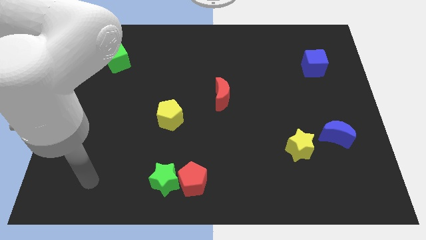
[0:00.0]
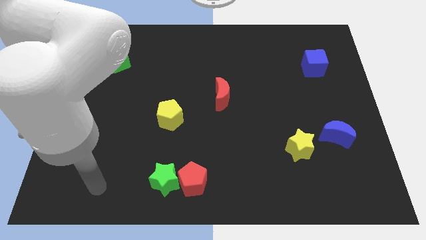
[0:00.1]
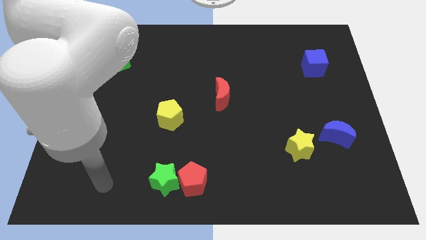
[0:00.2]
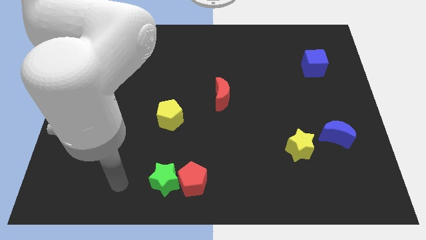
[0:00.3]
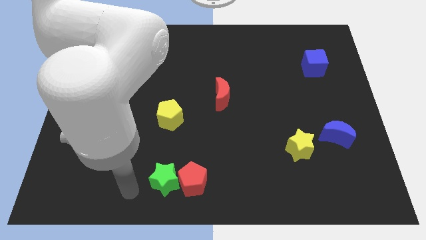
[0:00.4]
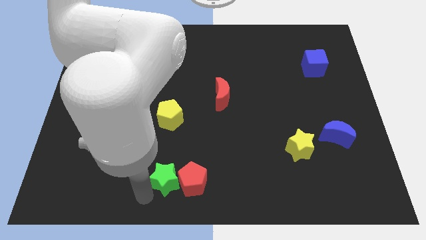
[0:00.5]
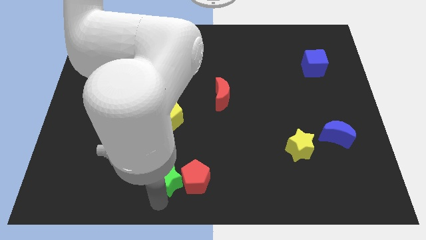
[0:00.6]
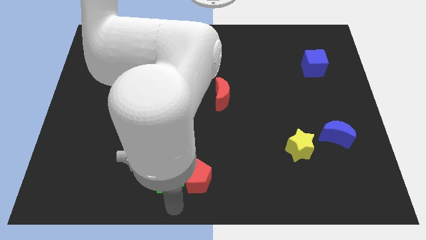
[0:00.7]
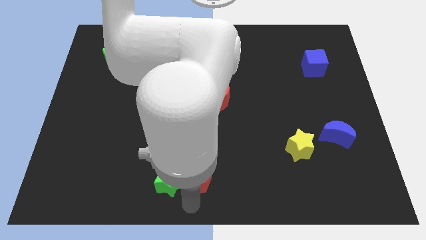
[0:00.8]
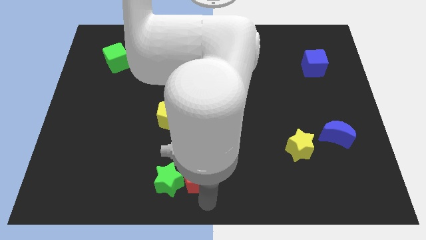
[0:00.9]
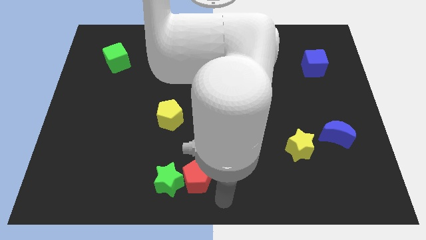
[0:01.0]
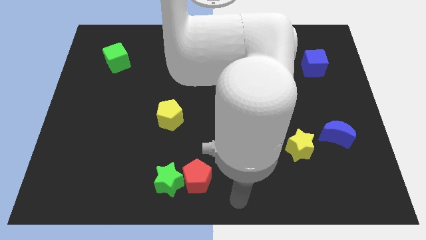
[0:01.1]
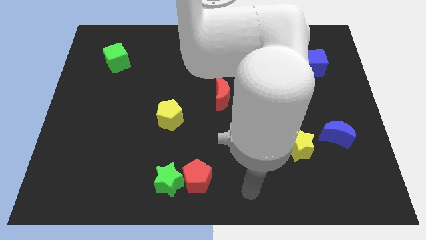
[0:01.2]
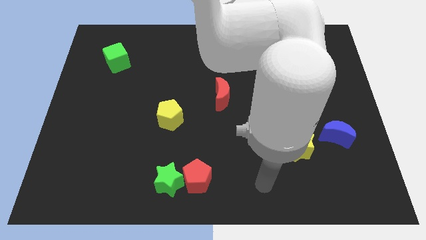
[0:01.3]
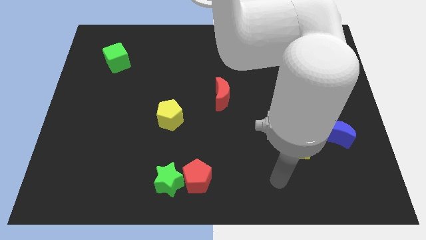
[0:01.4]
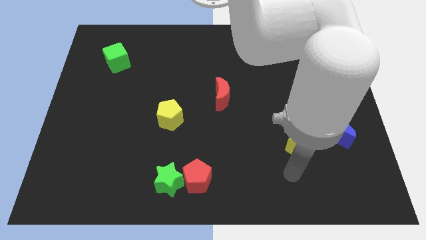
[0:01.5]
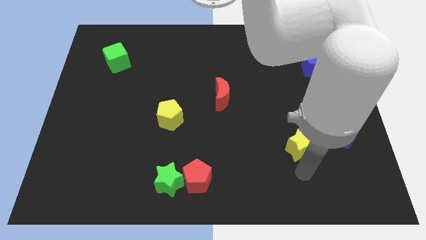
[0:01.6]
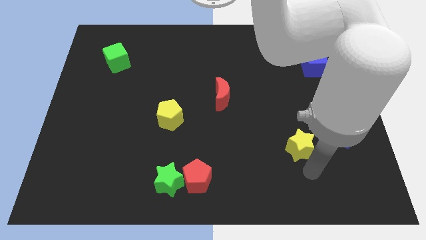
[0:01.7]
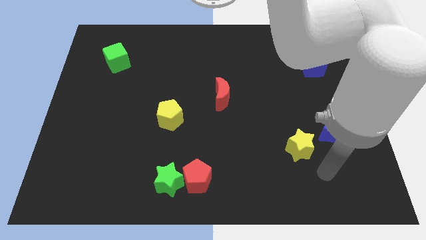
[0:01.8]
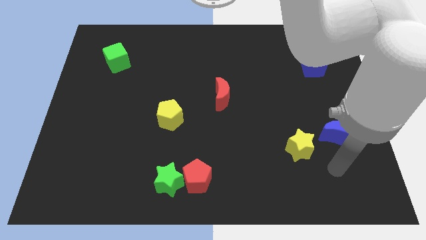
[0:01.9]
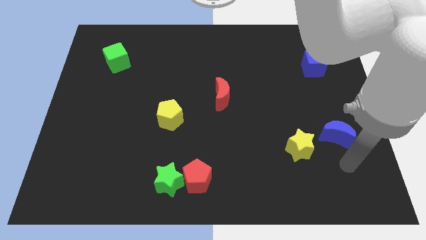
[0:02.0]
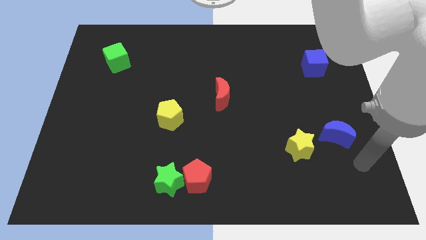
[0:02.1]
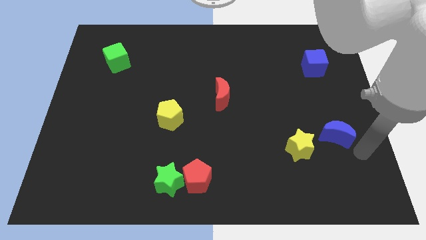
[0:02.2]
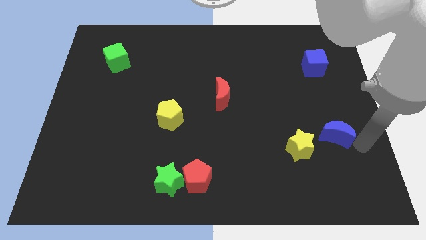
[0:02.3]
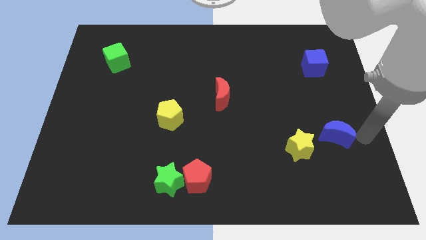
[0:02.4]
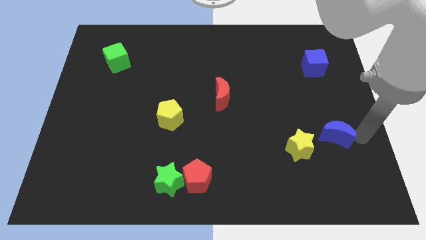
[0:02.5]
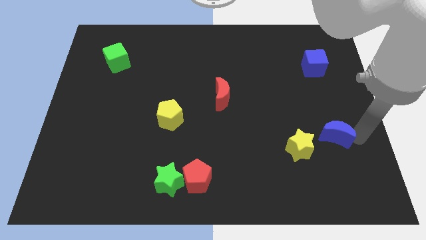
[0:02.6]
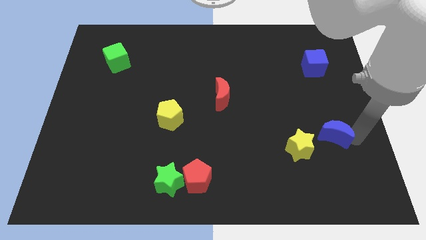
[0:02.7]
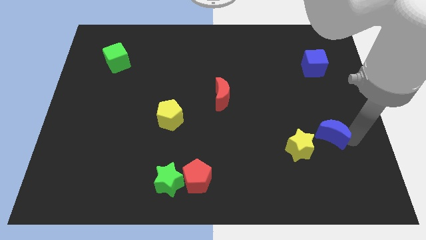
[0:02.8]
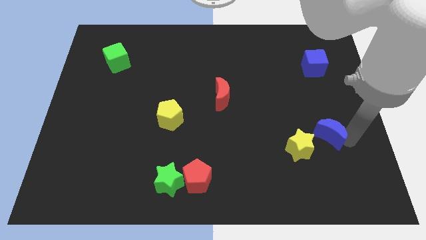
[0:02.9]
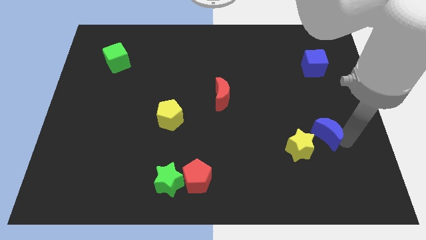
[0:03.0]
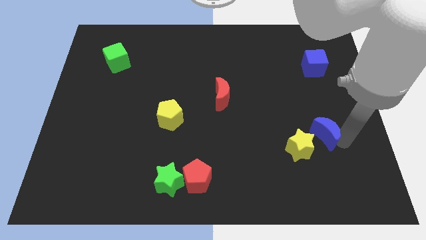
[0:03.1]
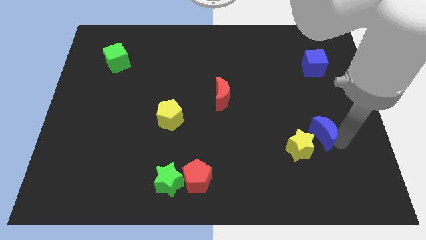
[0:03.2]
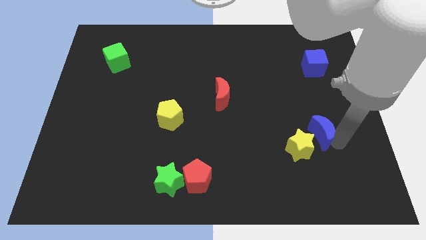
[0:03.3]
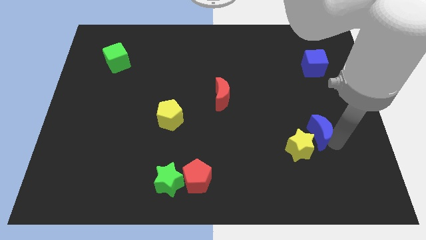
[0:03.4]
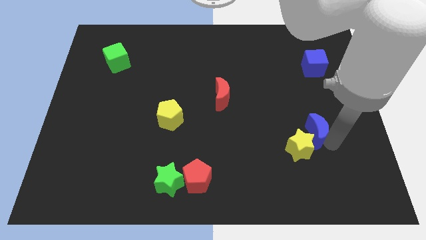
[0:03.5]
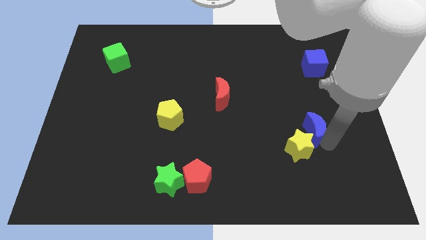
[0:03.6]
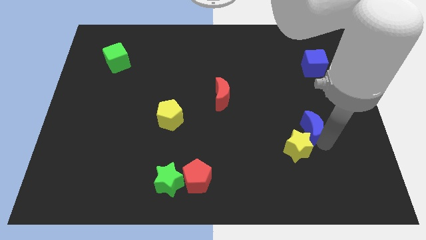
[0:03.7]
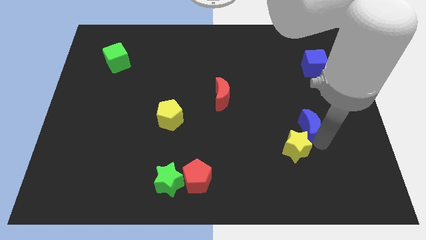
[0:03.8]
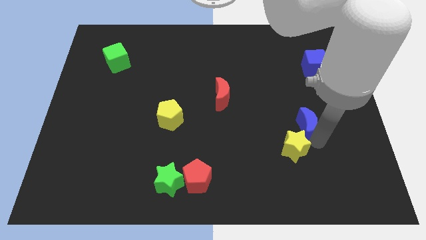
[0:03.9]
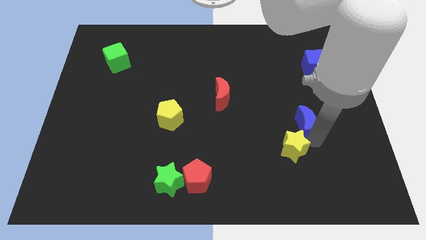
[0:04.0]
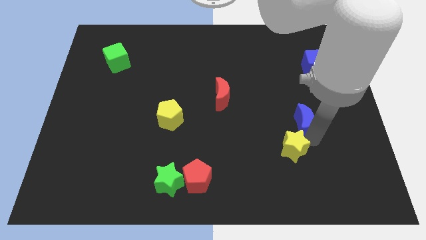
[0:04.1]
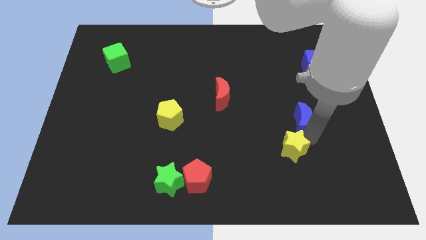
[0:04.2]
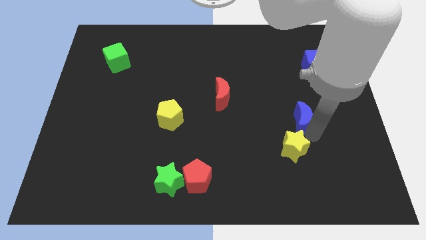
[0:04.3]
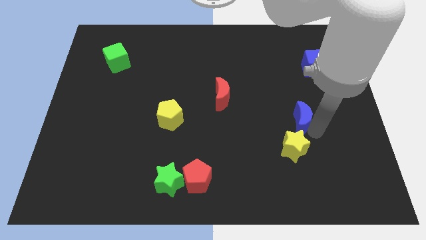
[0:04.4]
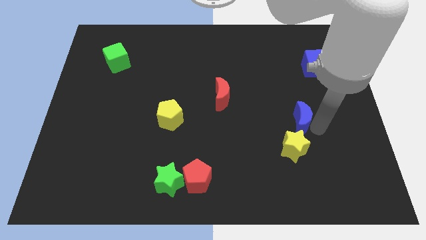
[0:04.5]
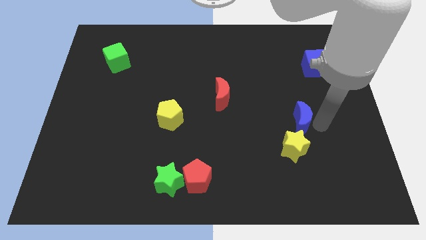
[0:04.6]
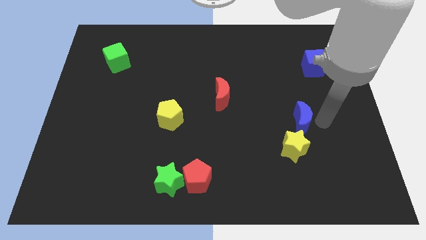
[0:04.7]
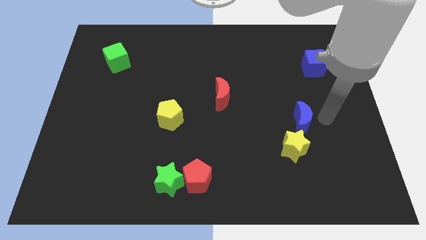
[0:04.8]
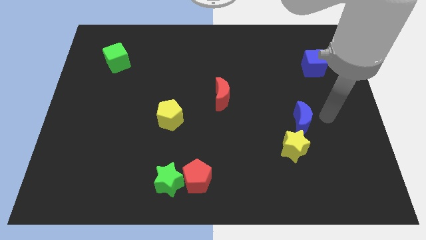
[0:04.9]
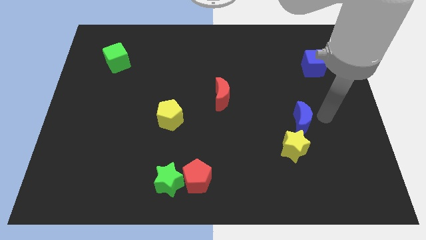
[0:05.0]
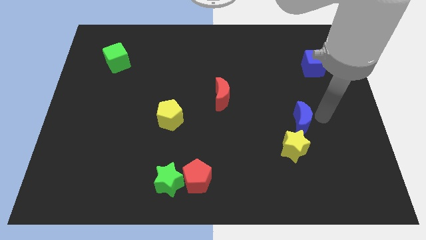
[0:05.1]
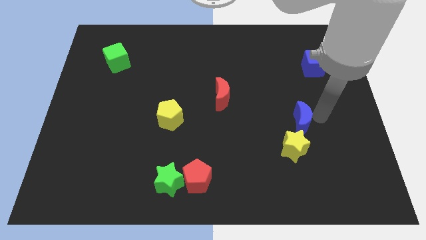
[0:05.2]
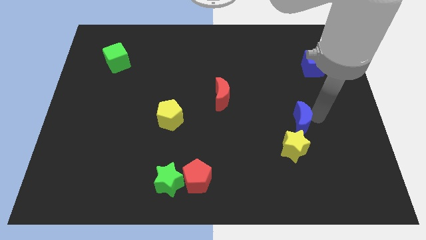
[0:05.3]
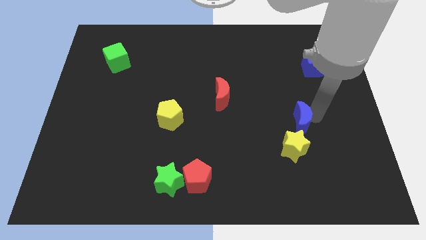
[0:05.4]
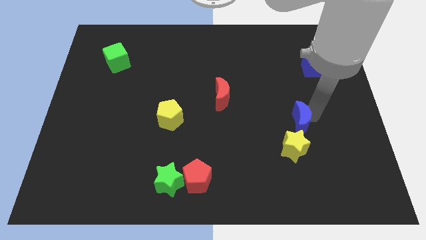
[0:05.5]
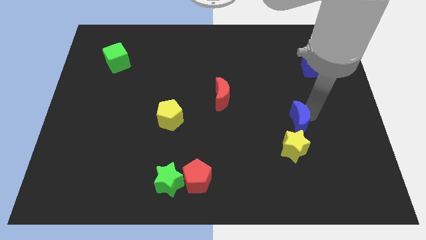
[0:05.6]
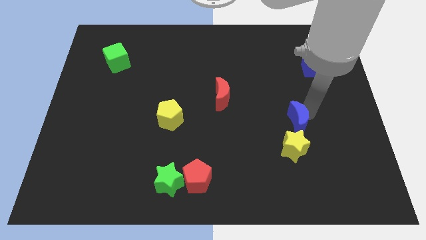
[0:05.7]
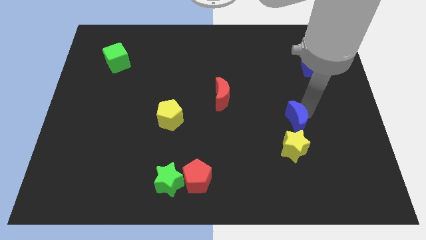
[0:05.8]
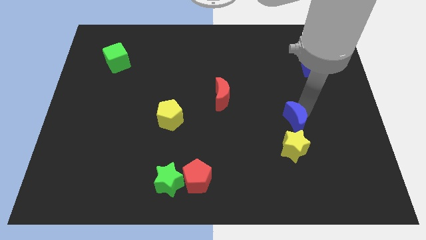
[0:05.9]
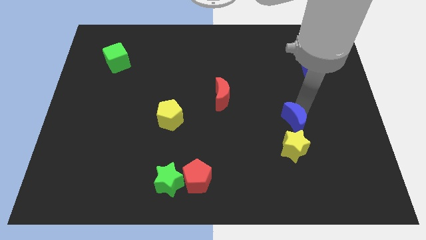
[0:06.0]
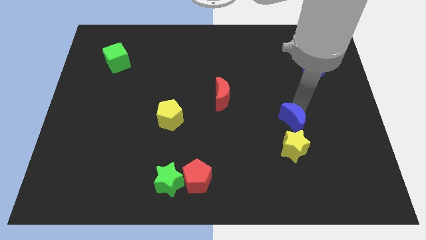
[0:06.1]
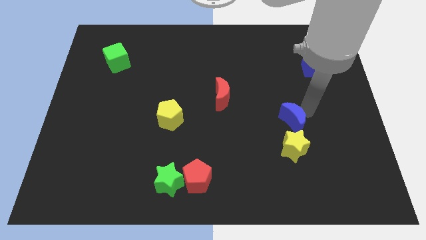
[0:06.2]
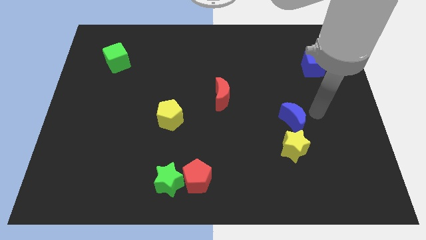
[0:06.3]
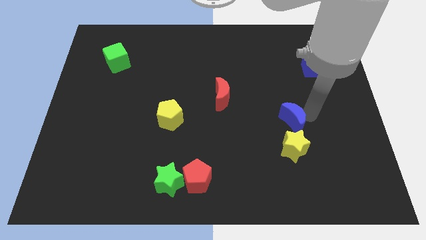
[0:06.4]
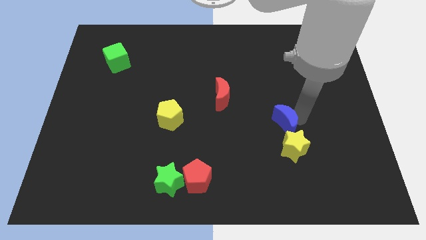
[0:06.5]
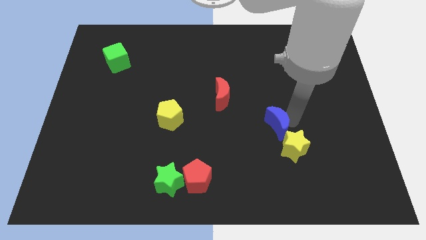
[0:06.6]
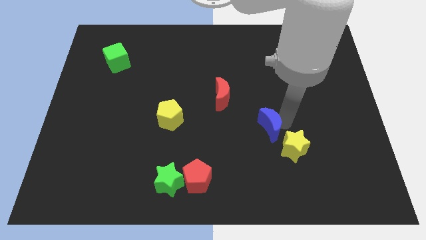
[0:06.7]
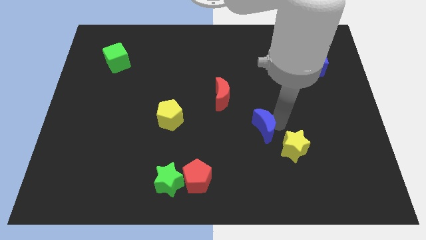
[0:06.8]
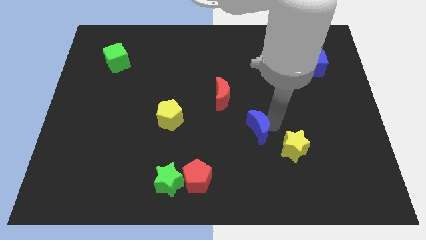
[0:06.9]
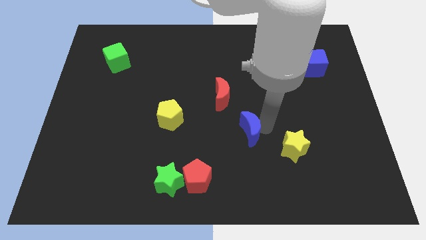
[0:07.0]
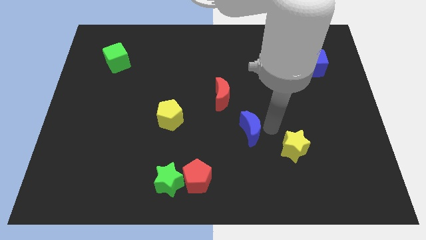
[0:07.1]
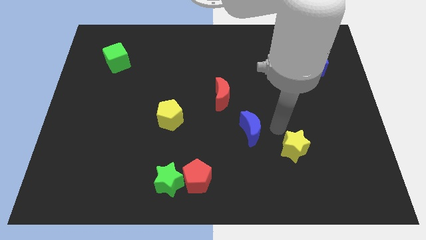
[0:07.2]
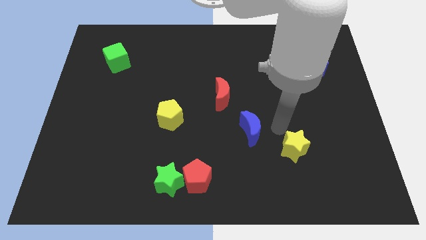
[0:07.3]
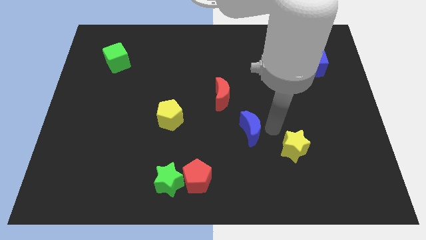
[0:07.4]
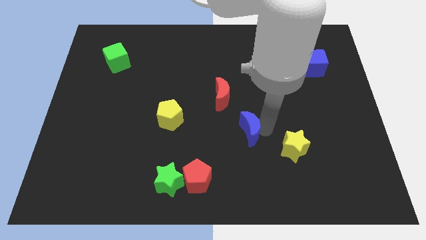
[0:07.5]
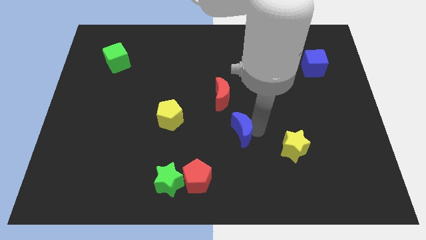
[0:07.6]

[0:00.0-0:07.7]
put the blue moon below the red moon
